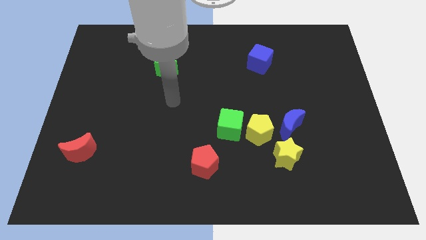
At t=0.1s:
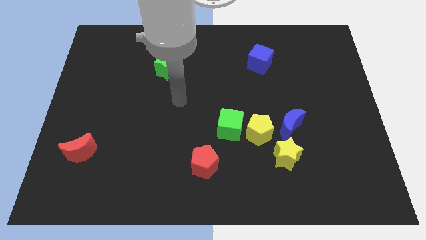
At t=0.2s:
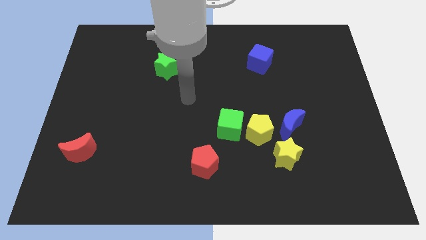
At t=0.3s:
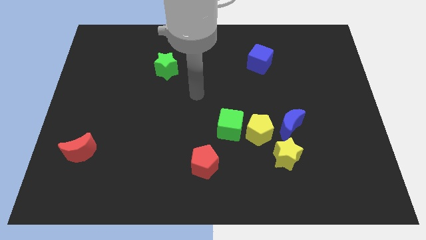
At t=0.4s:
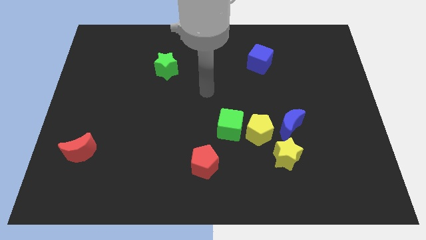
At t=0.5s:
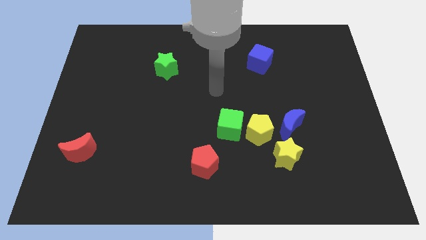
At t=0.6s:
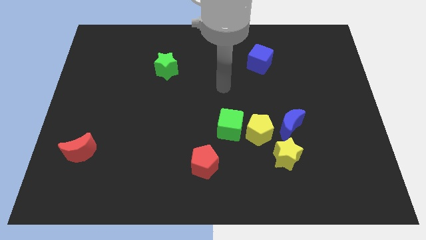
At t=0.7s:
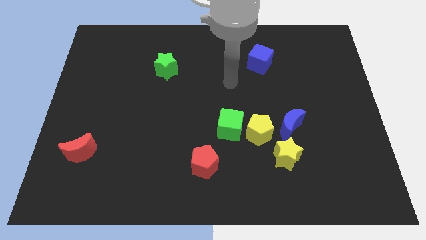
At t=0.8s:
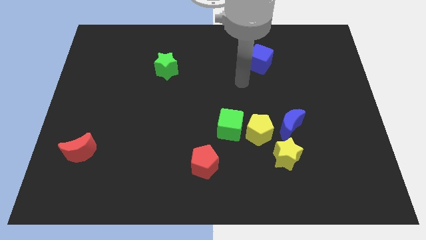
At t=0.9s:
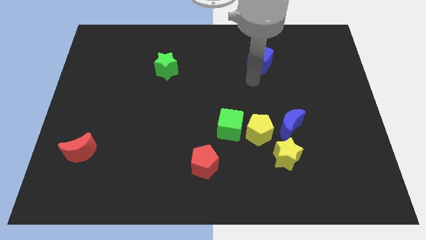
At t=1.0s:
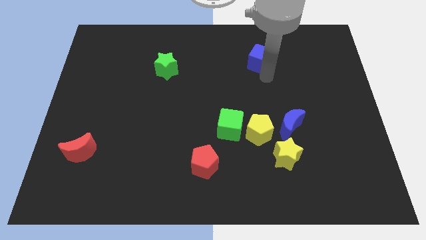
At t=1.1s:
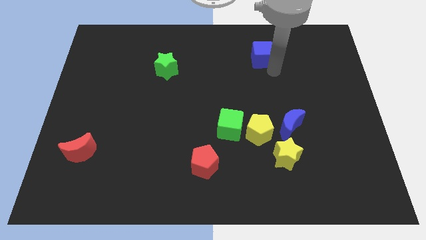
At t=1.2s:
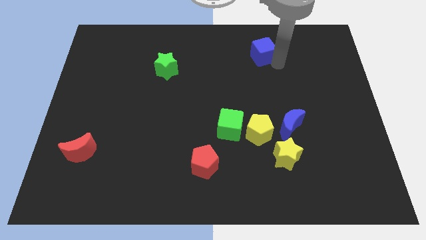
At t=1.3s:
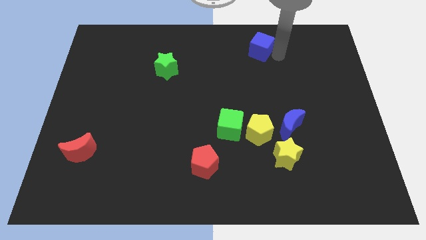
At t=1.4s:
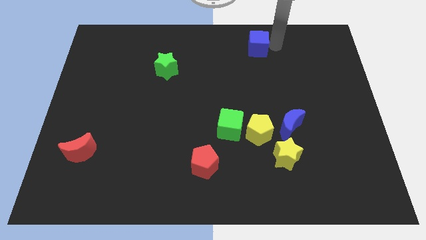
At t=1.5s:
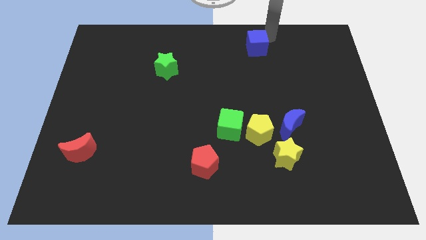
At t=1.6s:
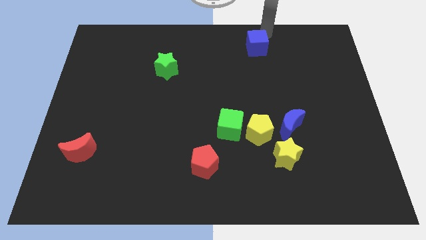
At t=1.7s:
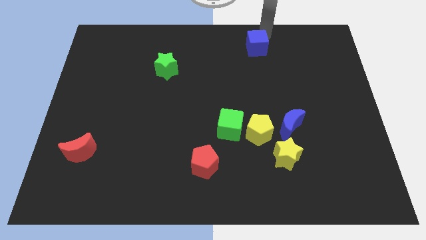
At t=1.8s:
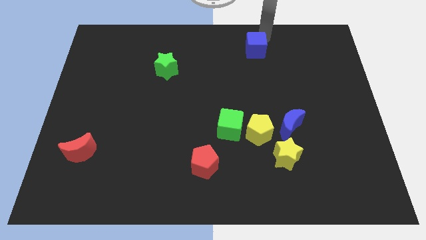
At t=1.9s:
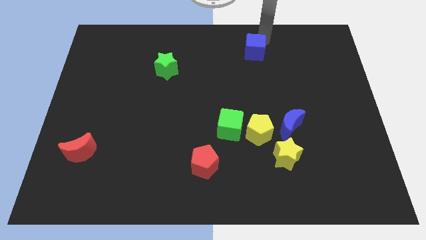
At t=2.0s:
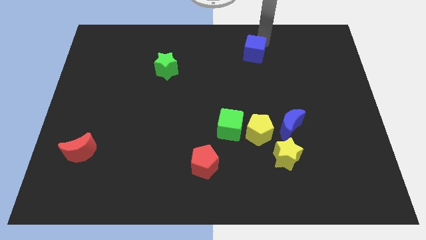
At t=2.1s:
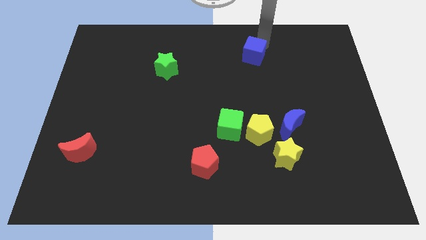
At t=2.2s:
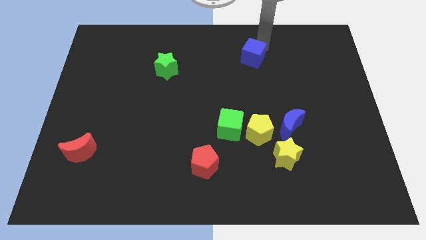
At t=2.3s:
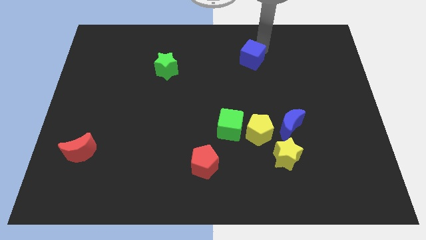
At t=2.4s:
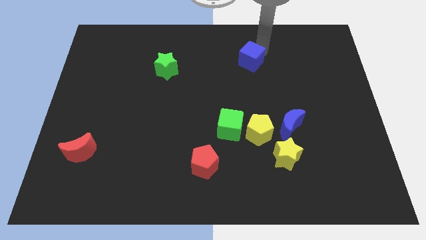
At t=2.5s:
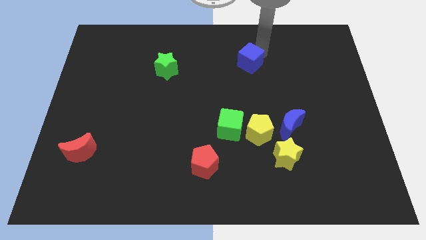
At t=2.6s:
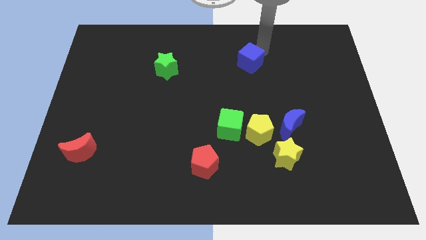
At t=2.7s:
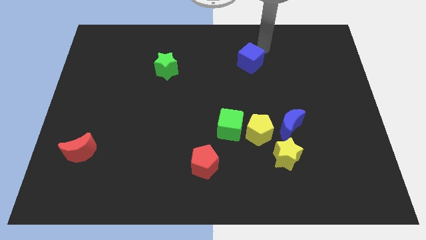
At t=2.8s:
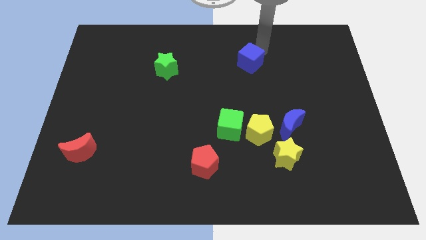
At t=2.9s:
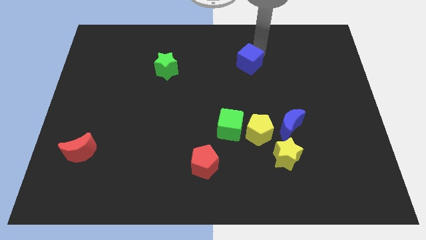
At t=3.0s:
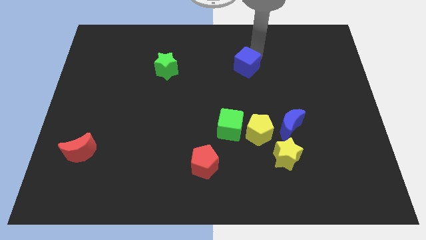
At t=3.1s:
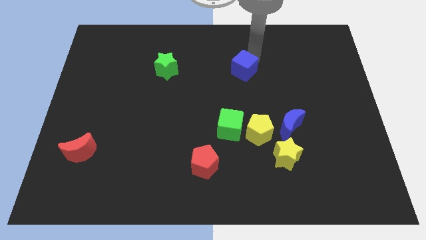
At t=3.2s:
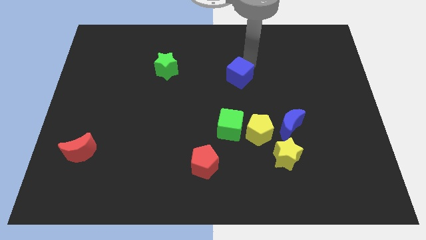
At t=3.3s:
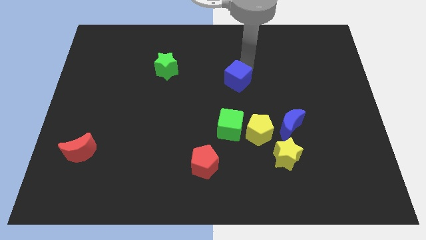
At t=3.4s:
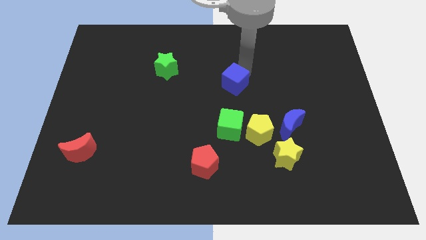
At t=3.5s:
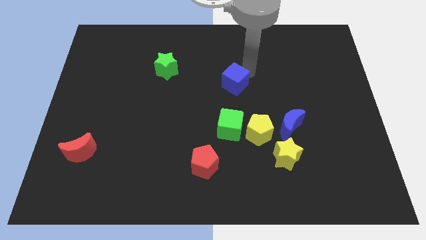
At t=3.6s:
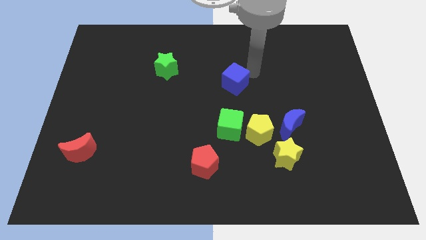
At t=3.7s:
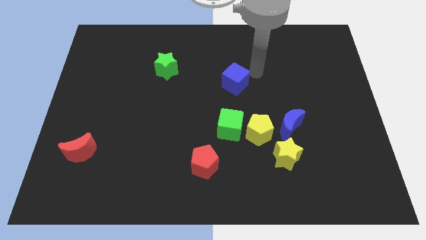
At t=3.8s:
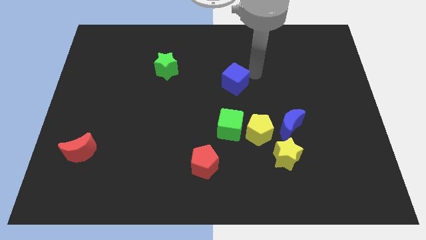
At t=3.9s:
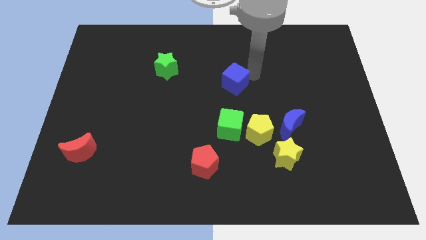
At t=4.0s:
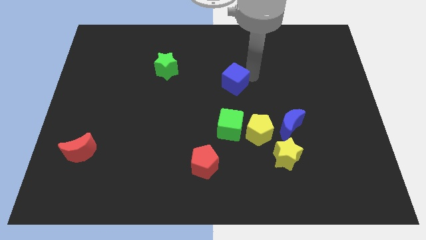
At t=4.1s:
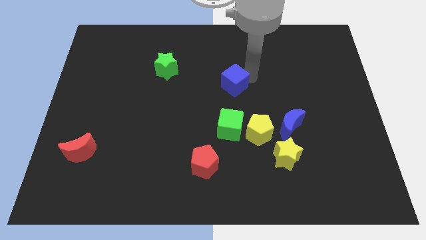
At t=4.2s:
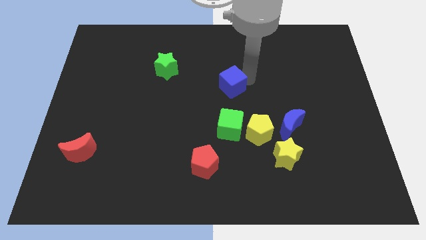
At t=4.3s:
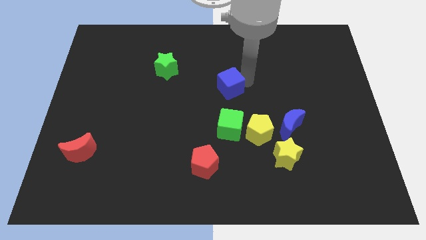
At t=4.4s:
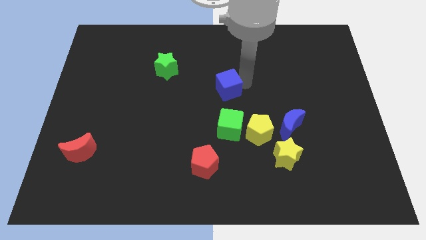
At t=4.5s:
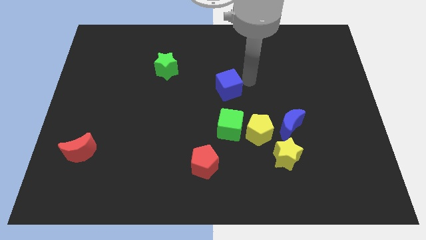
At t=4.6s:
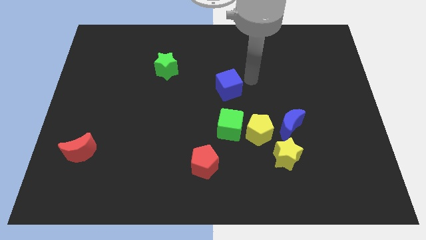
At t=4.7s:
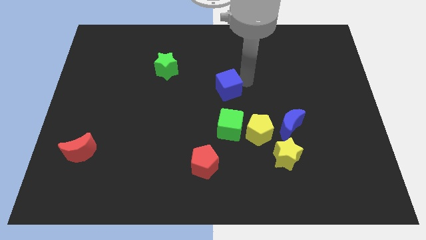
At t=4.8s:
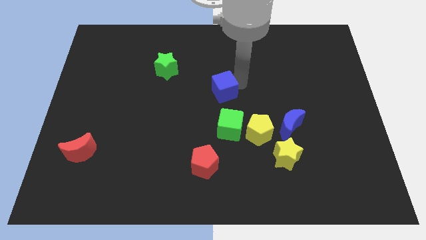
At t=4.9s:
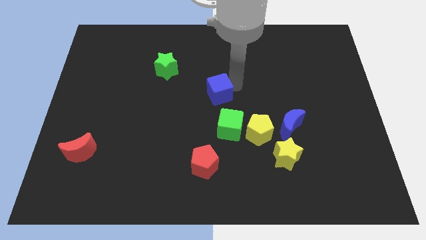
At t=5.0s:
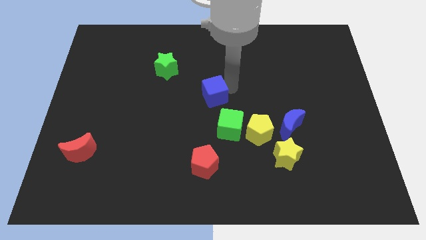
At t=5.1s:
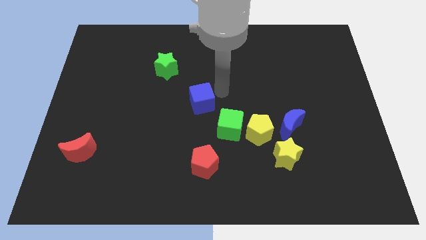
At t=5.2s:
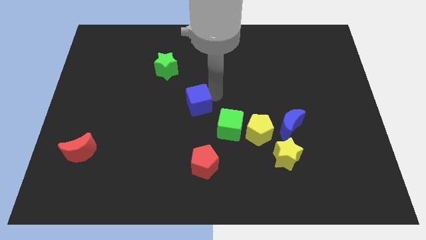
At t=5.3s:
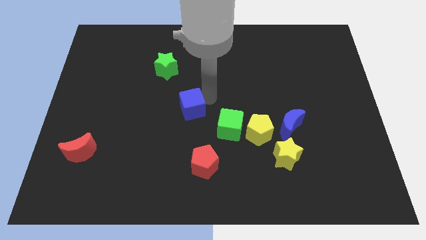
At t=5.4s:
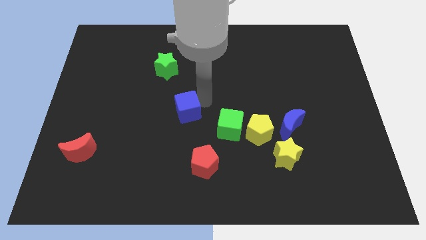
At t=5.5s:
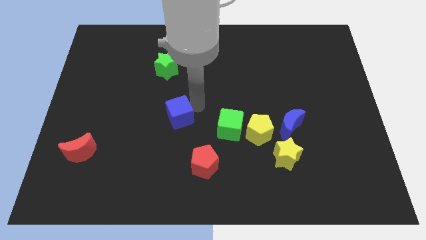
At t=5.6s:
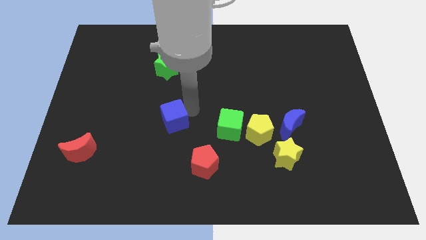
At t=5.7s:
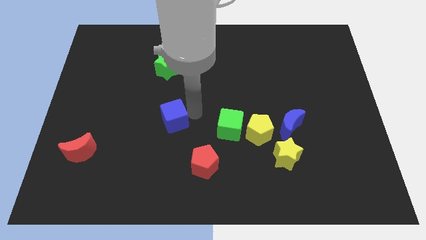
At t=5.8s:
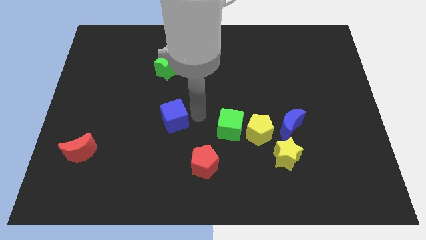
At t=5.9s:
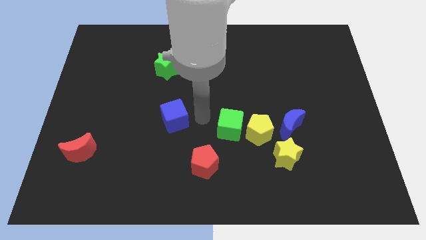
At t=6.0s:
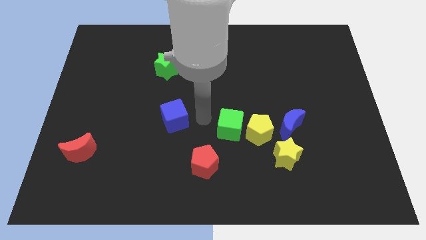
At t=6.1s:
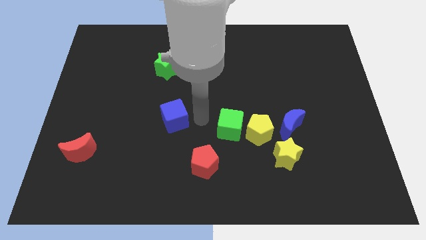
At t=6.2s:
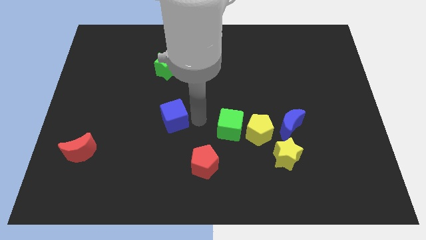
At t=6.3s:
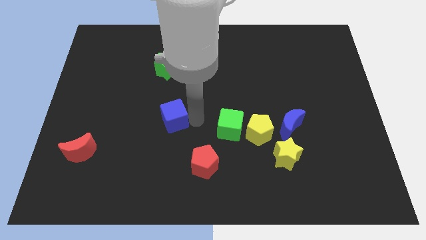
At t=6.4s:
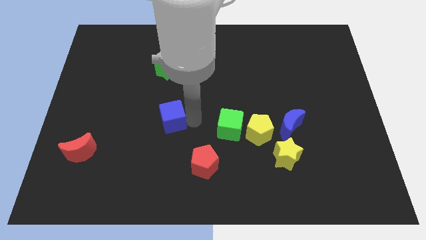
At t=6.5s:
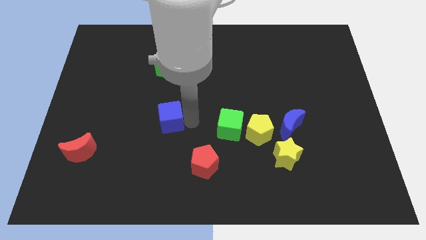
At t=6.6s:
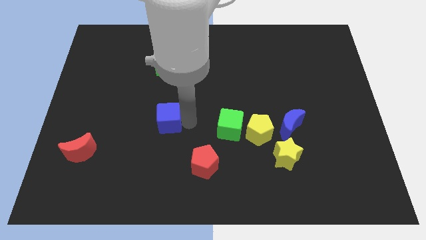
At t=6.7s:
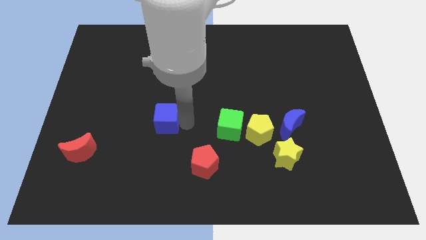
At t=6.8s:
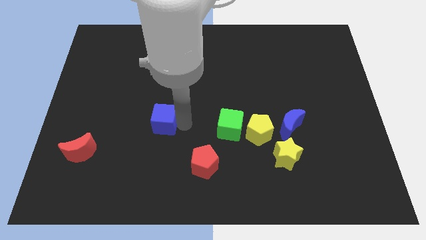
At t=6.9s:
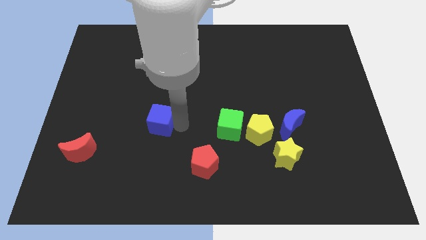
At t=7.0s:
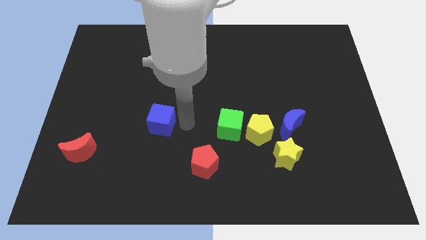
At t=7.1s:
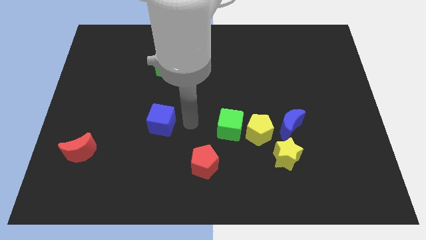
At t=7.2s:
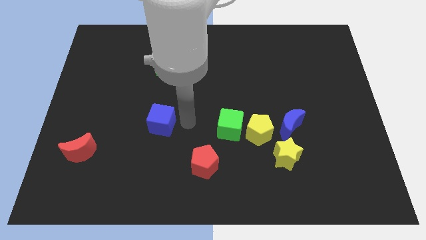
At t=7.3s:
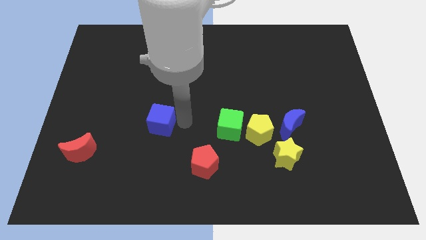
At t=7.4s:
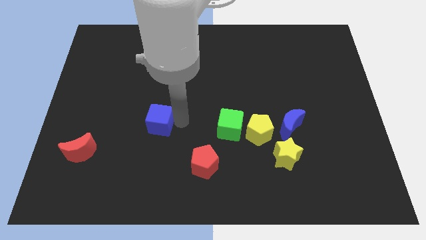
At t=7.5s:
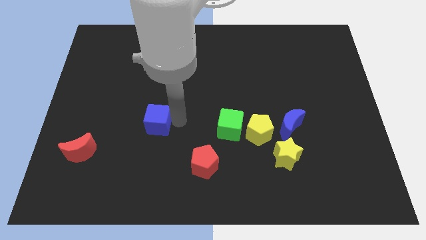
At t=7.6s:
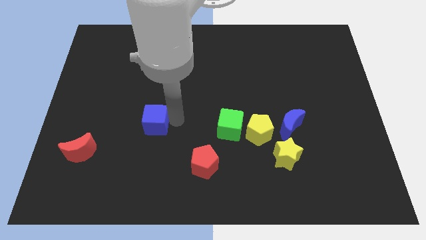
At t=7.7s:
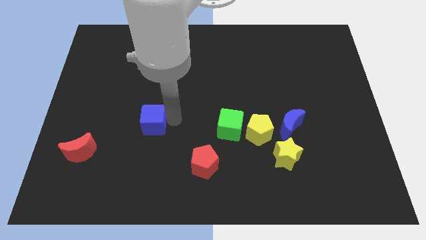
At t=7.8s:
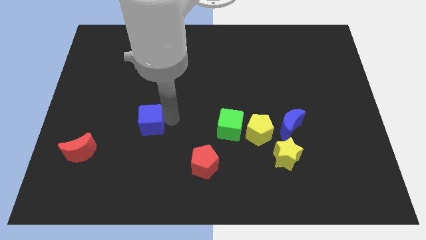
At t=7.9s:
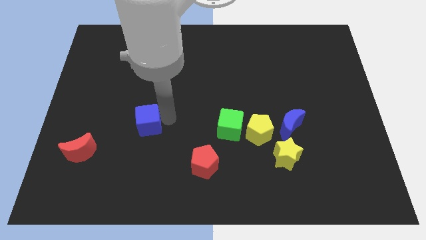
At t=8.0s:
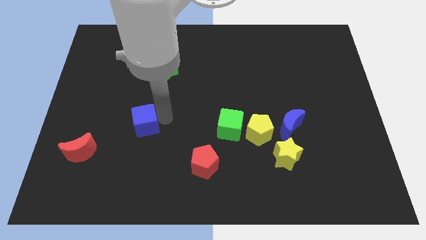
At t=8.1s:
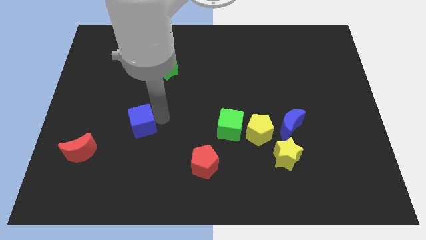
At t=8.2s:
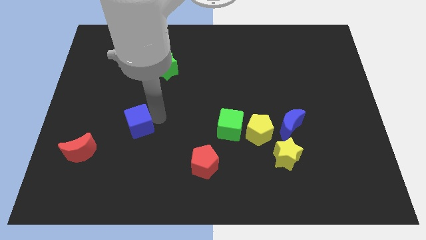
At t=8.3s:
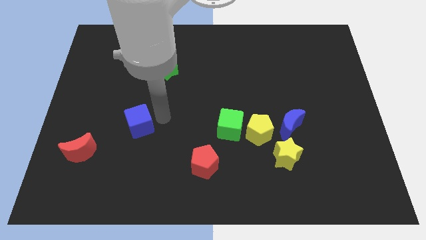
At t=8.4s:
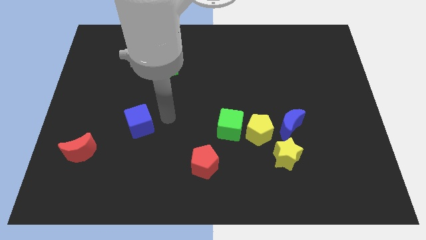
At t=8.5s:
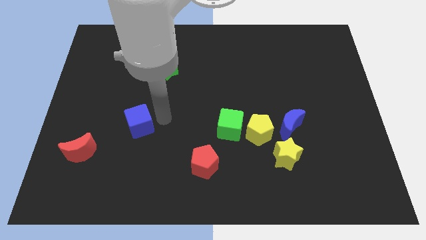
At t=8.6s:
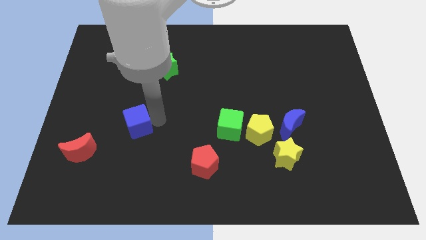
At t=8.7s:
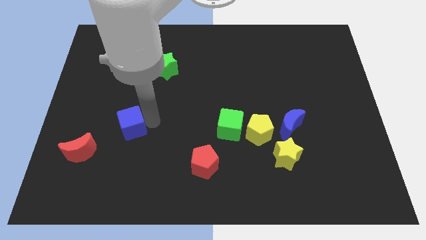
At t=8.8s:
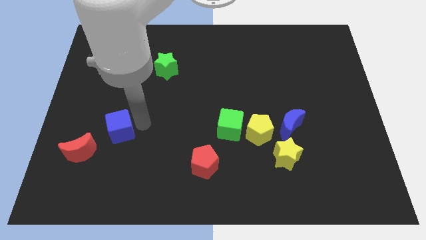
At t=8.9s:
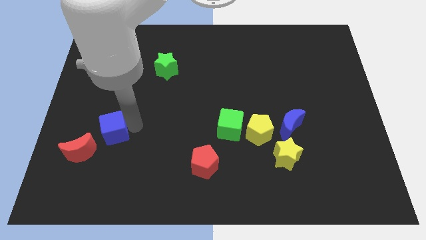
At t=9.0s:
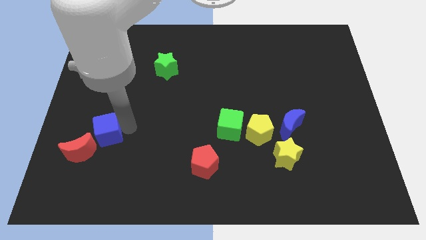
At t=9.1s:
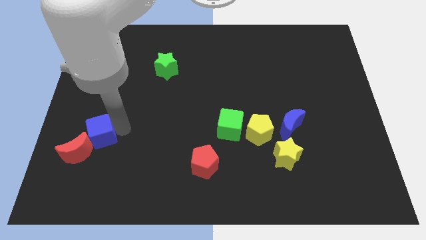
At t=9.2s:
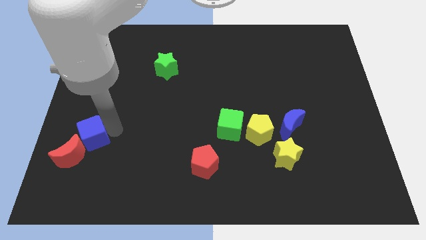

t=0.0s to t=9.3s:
put the blue cube to the red moon
